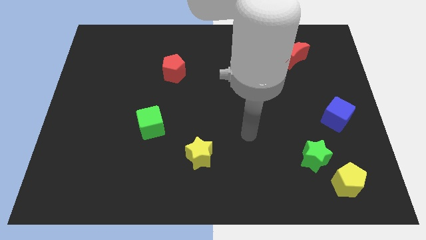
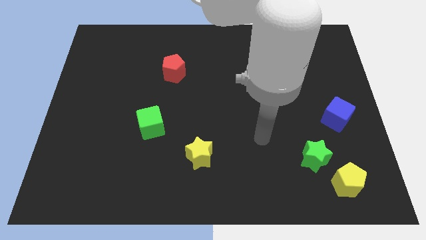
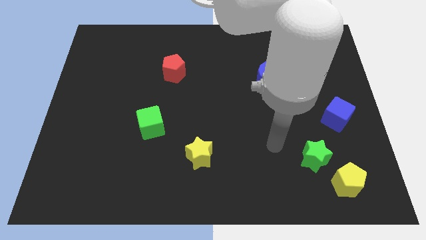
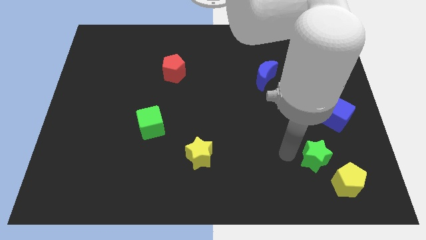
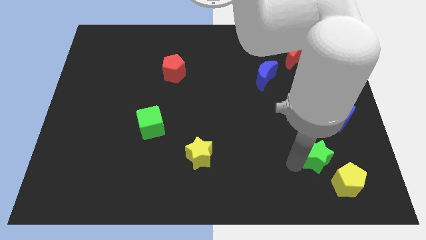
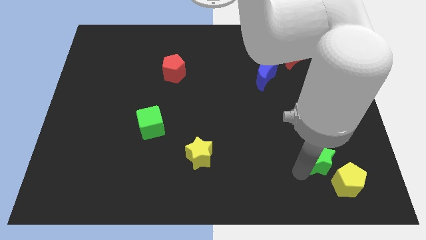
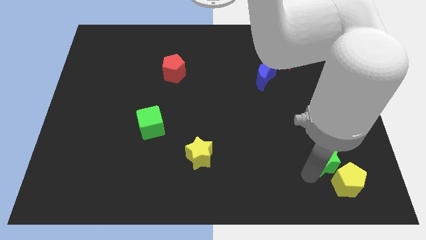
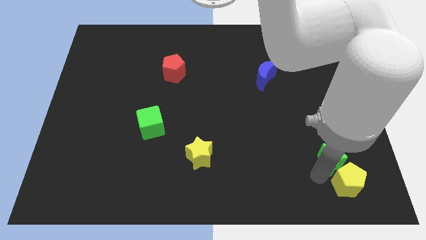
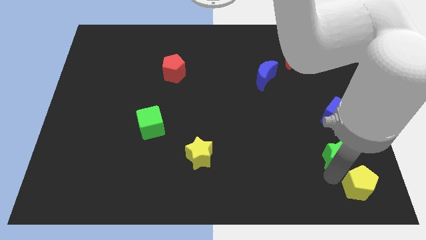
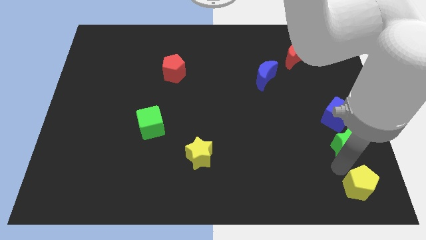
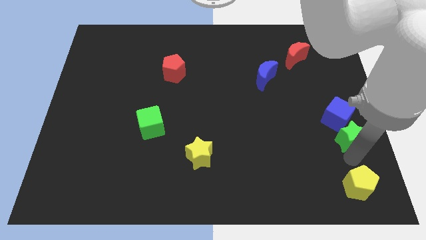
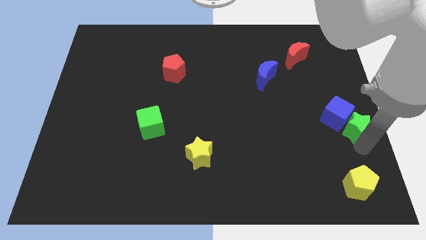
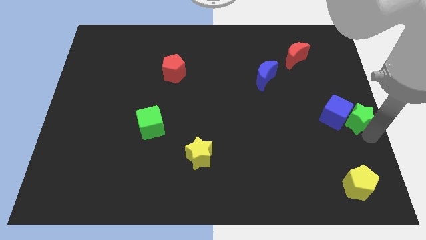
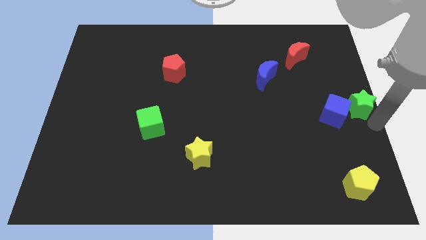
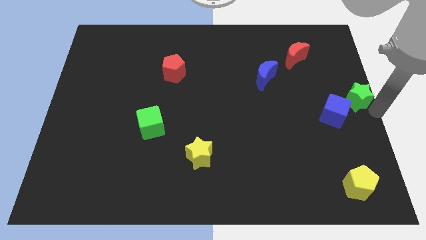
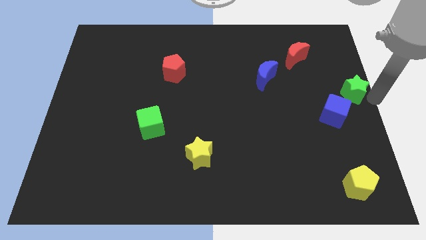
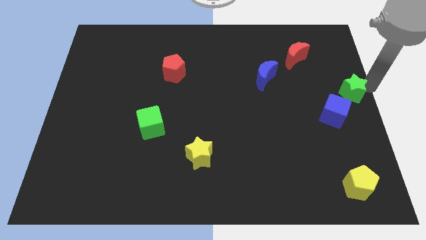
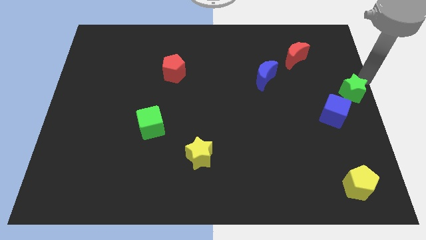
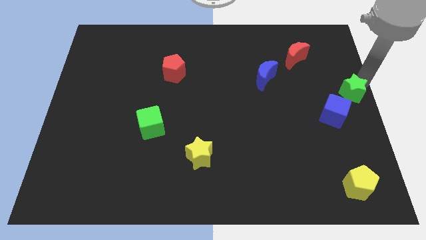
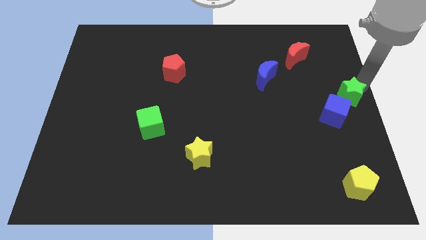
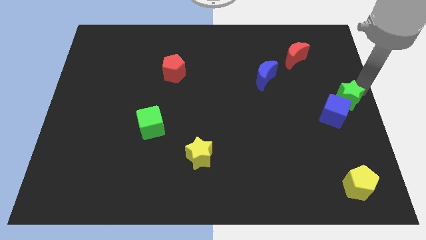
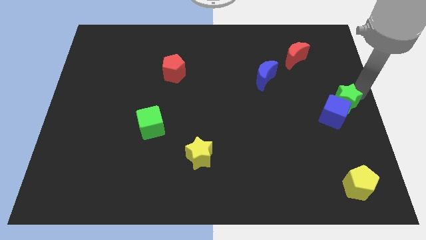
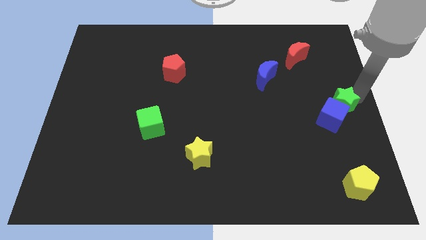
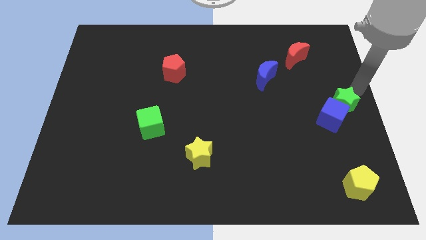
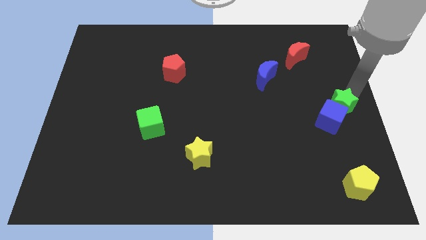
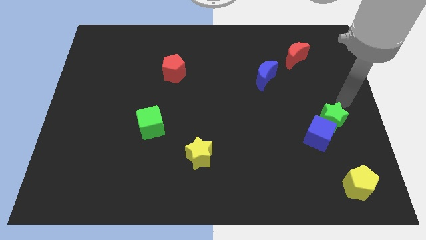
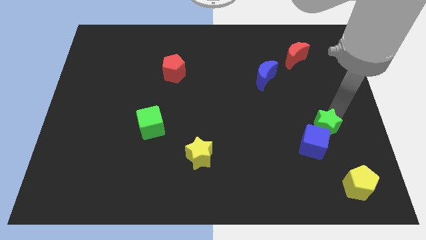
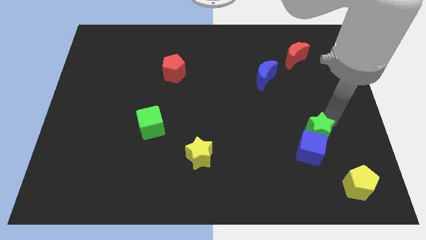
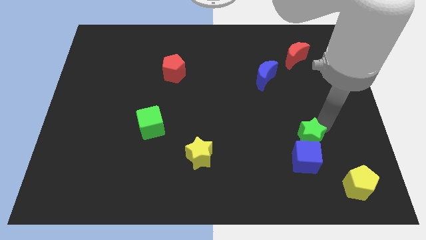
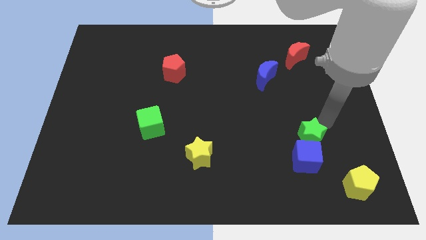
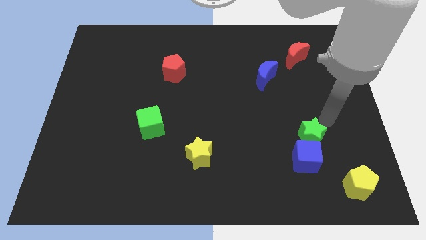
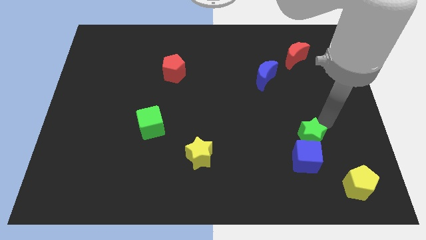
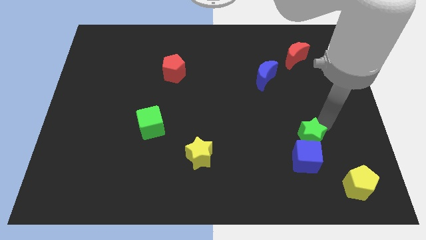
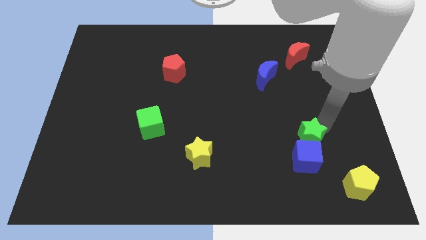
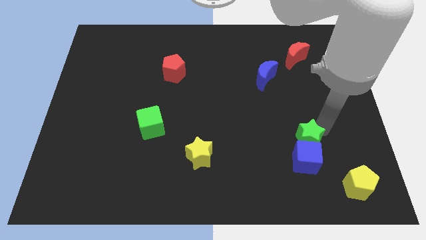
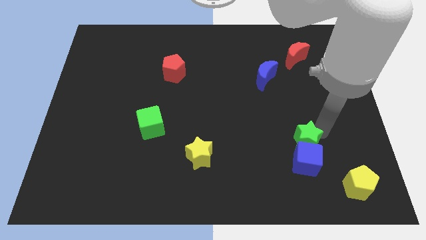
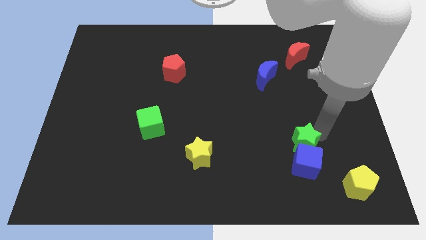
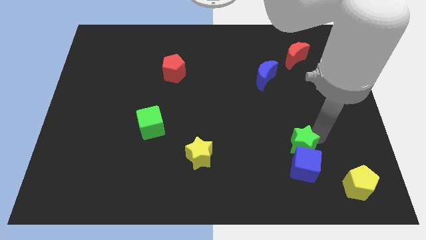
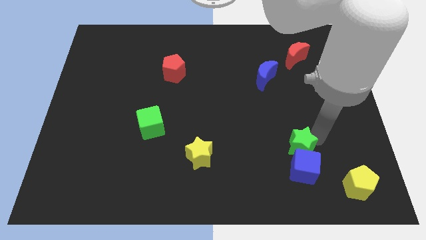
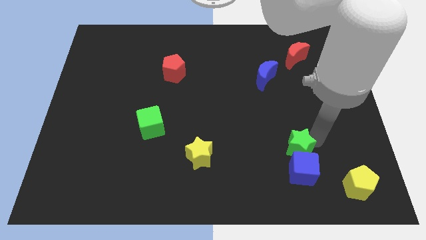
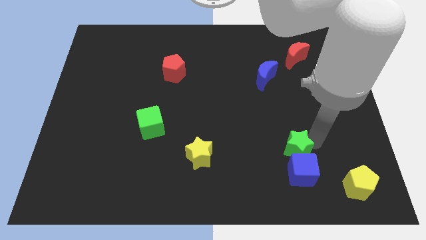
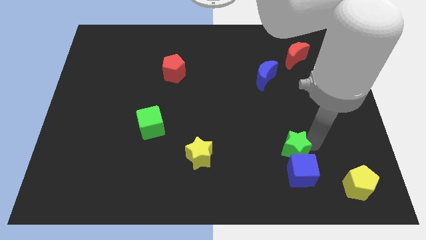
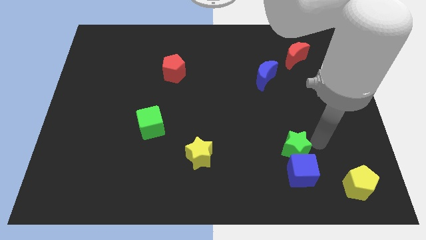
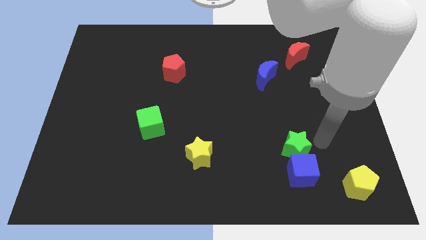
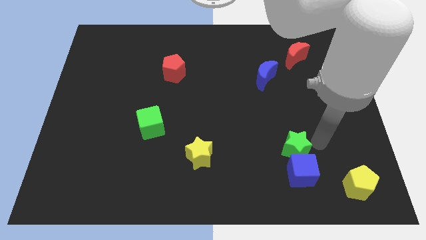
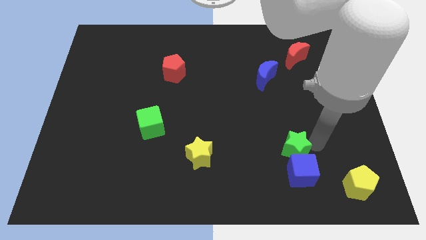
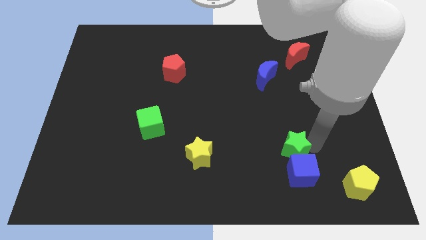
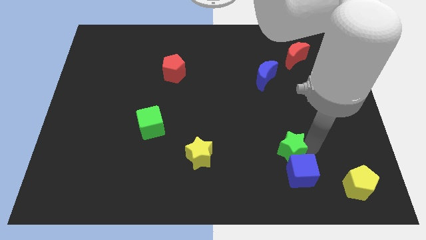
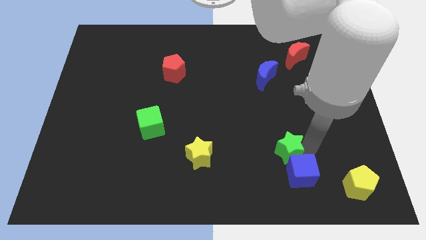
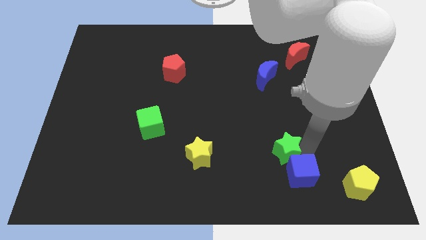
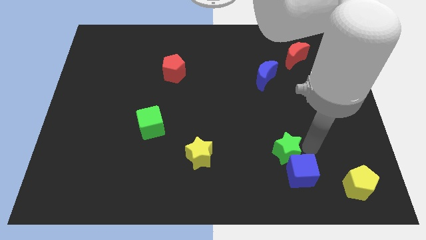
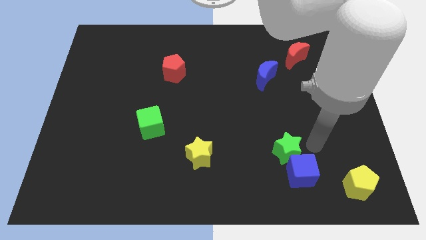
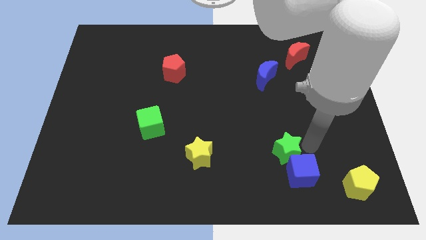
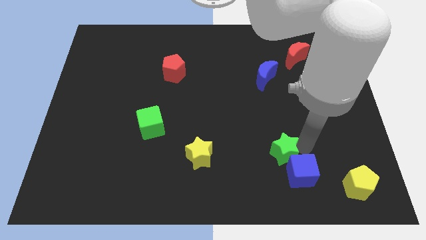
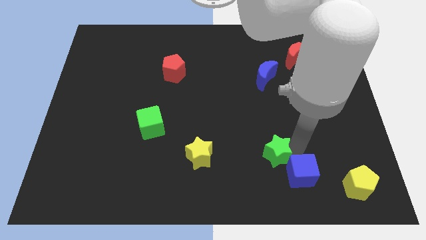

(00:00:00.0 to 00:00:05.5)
slide the green star just right of the yellow star
